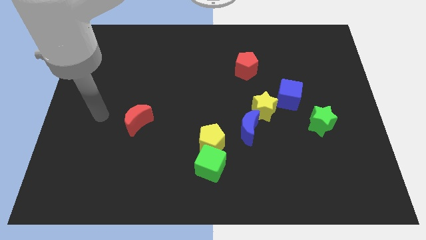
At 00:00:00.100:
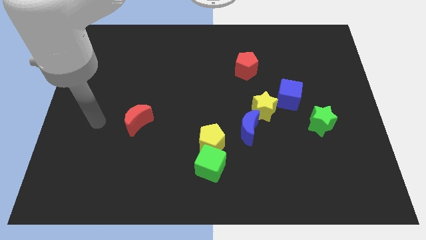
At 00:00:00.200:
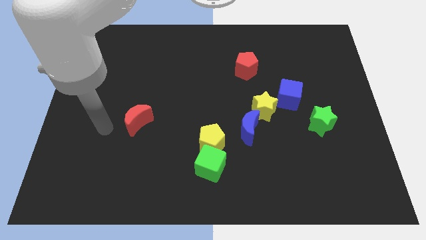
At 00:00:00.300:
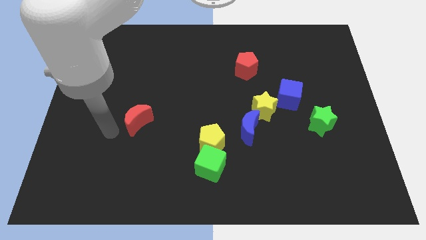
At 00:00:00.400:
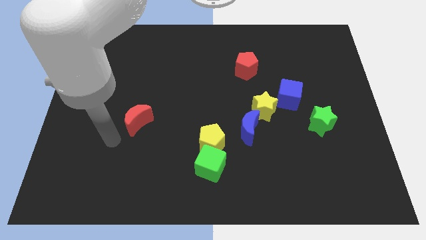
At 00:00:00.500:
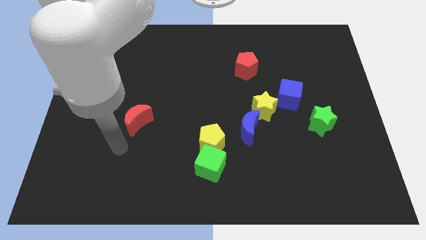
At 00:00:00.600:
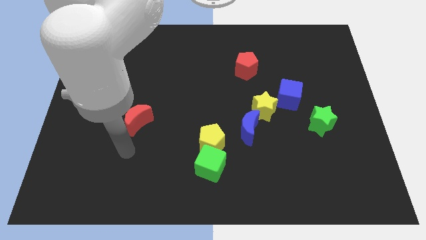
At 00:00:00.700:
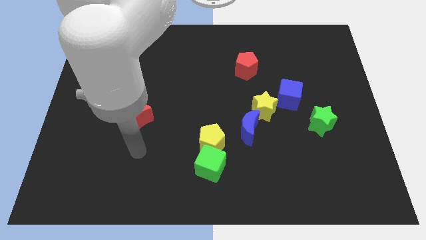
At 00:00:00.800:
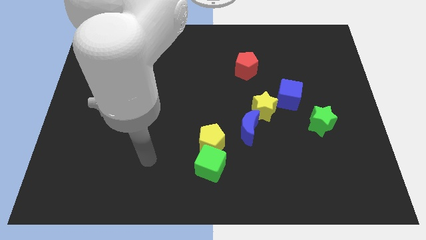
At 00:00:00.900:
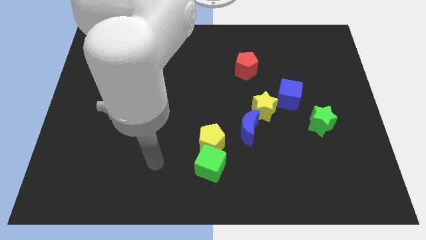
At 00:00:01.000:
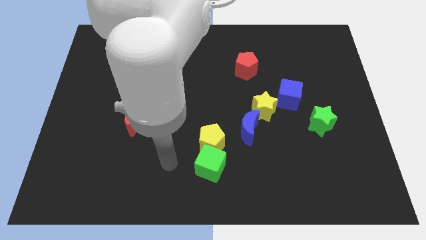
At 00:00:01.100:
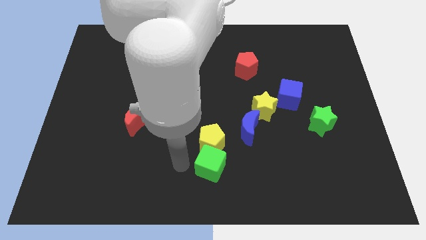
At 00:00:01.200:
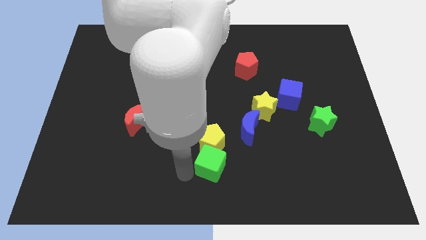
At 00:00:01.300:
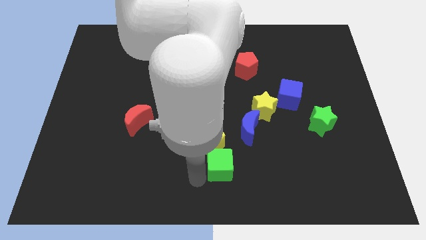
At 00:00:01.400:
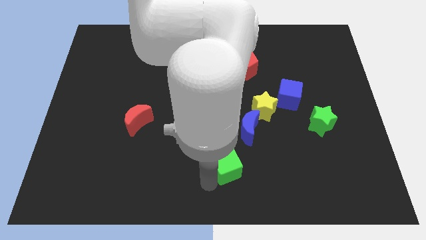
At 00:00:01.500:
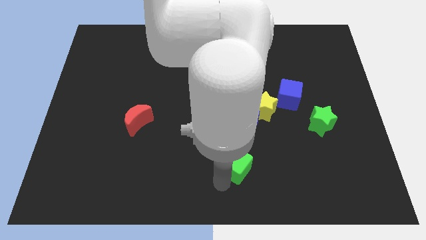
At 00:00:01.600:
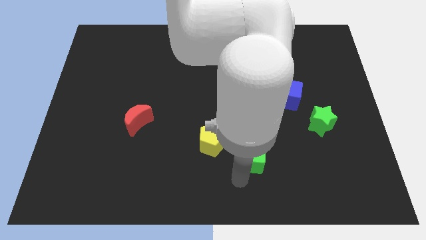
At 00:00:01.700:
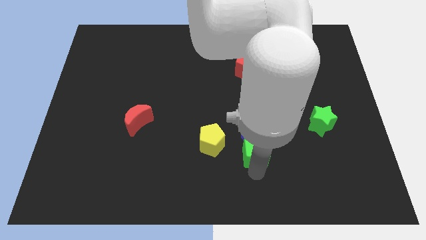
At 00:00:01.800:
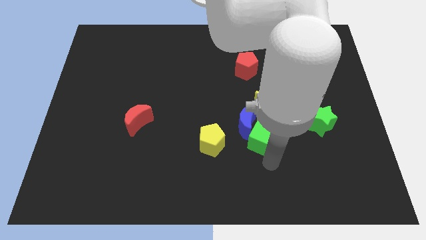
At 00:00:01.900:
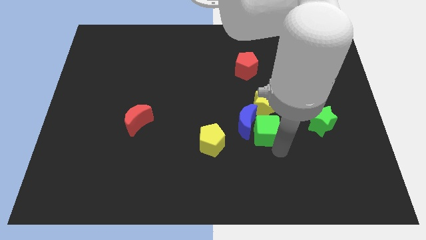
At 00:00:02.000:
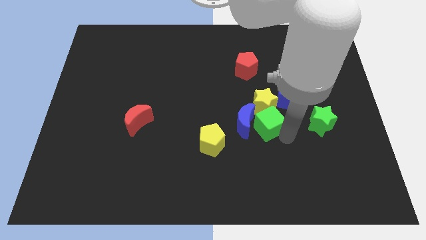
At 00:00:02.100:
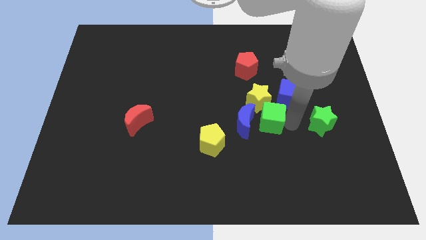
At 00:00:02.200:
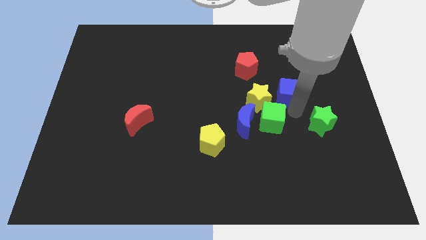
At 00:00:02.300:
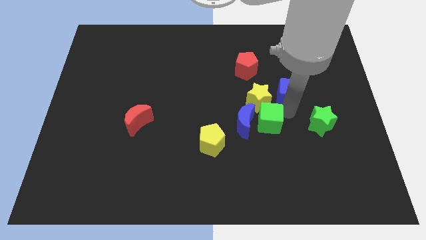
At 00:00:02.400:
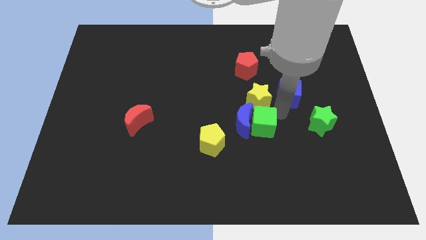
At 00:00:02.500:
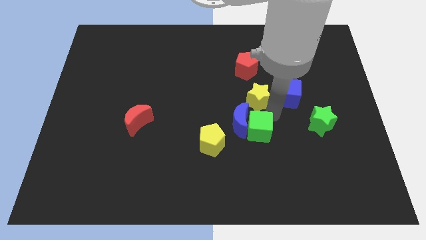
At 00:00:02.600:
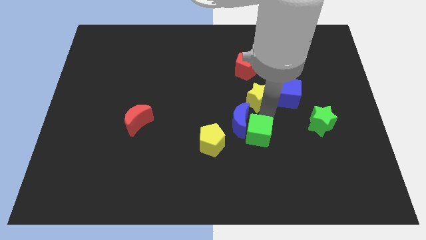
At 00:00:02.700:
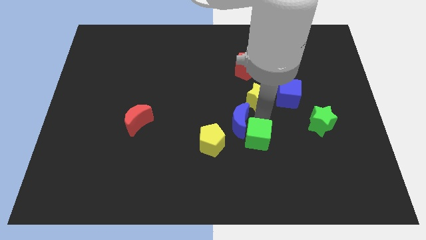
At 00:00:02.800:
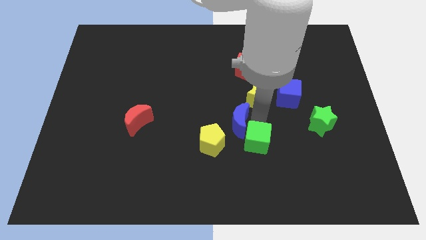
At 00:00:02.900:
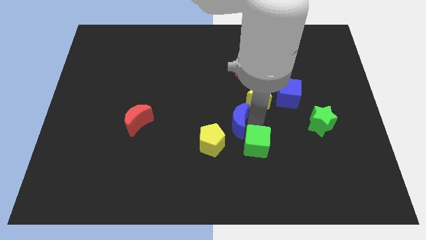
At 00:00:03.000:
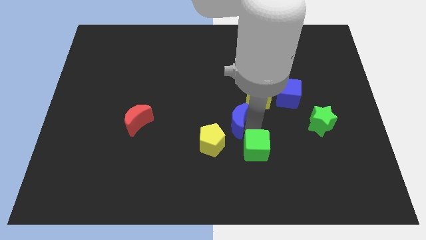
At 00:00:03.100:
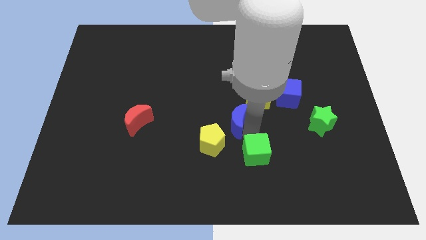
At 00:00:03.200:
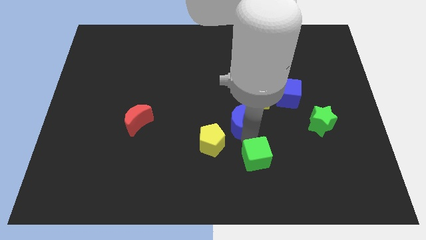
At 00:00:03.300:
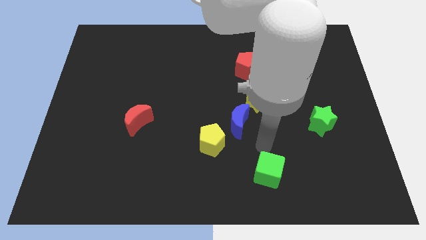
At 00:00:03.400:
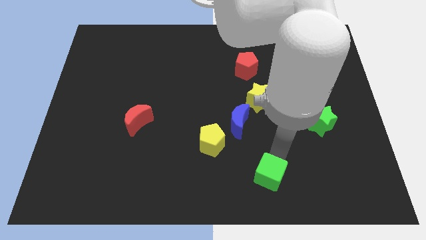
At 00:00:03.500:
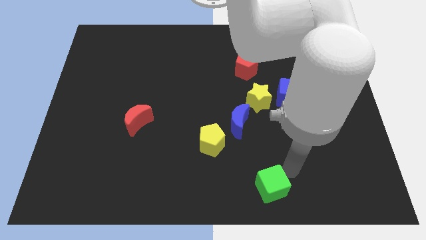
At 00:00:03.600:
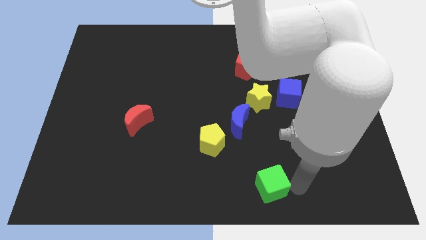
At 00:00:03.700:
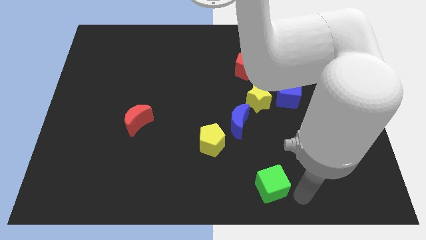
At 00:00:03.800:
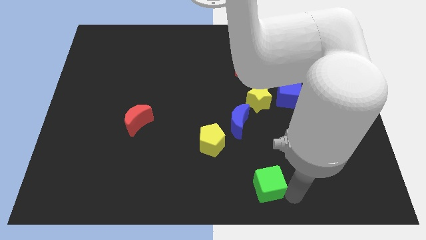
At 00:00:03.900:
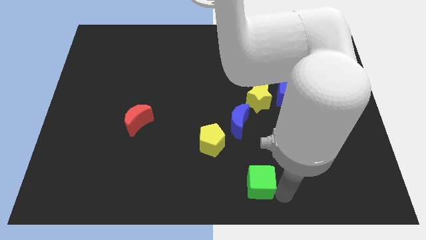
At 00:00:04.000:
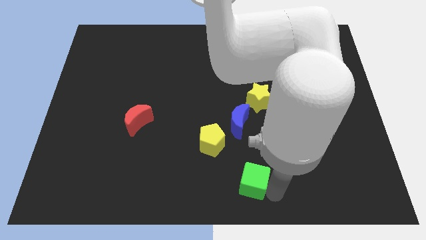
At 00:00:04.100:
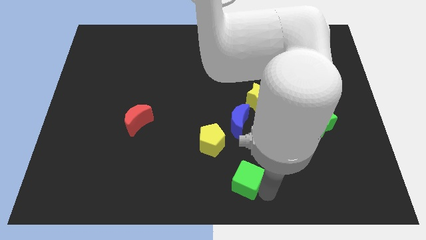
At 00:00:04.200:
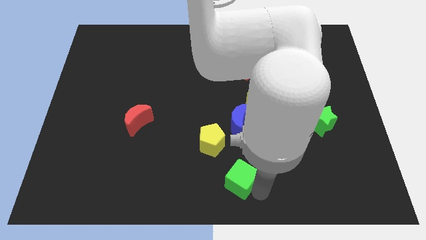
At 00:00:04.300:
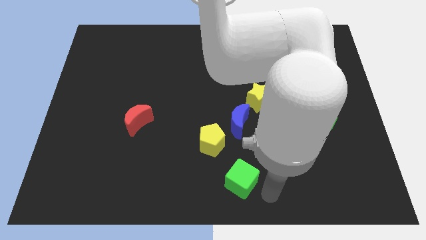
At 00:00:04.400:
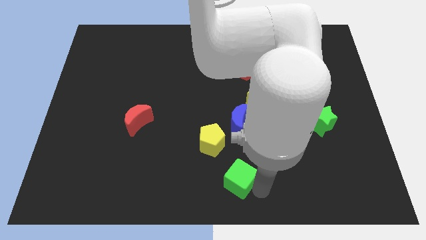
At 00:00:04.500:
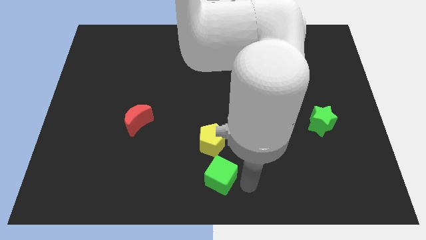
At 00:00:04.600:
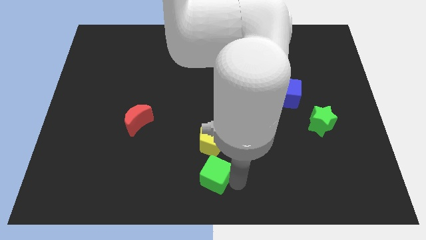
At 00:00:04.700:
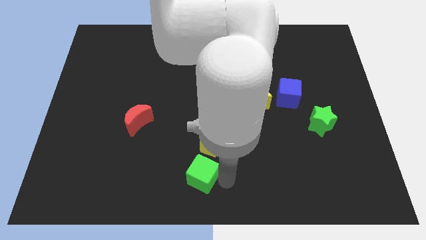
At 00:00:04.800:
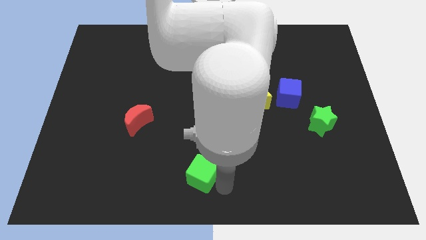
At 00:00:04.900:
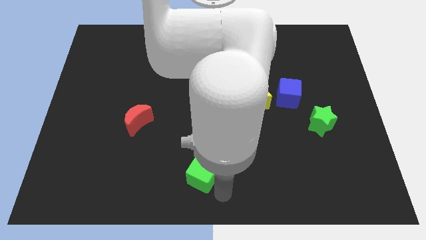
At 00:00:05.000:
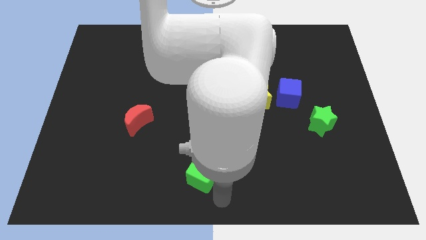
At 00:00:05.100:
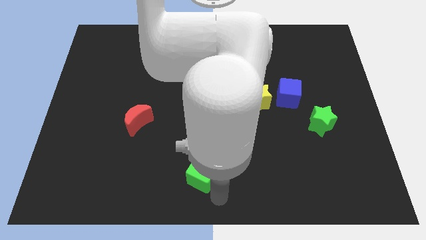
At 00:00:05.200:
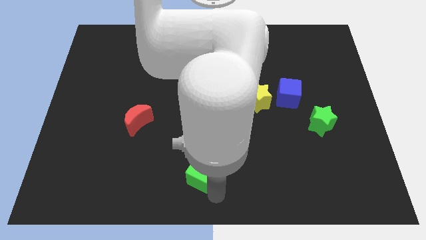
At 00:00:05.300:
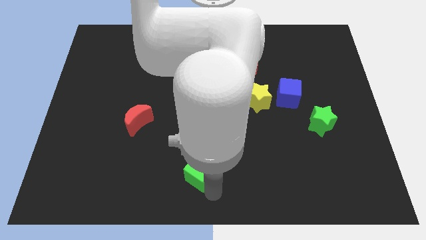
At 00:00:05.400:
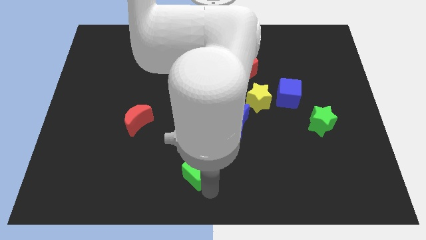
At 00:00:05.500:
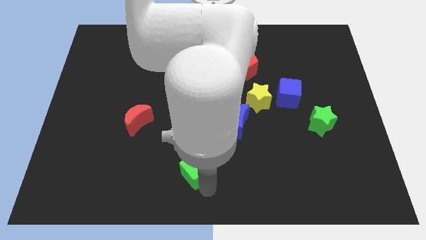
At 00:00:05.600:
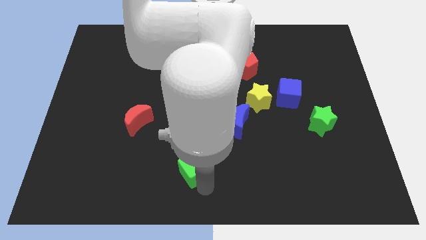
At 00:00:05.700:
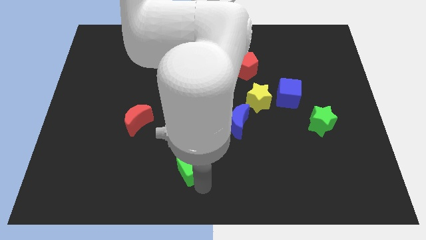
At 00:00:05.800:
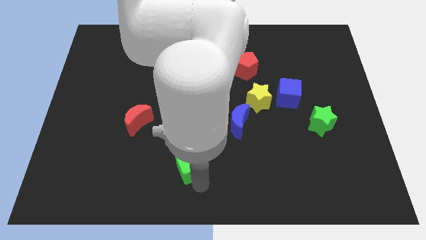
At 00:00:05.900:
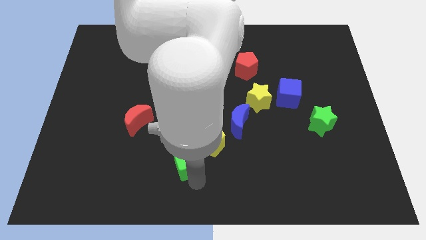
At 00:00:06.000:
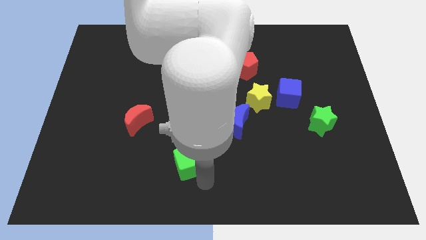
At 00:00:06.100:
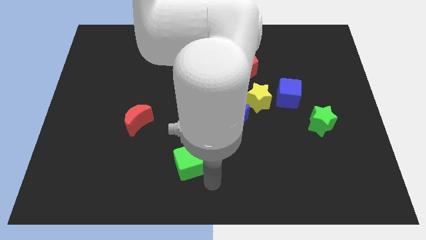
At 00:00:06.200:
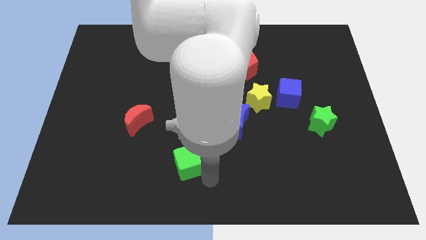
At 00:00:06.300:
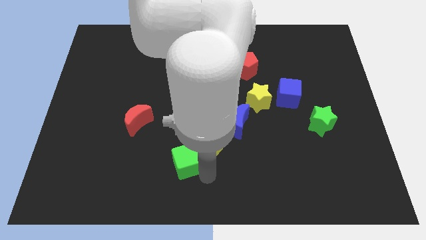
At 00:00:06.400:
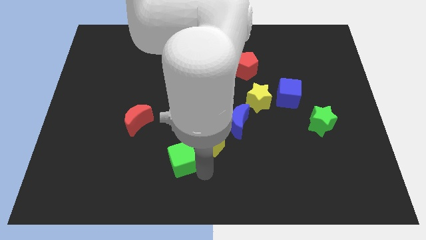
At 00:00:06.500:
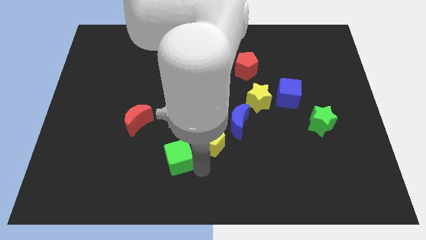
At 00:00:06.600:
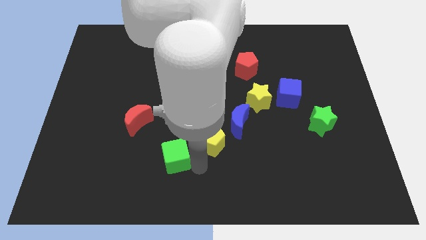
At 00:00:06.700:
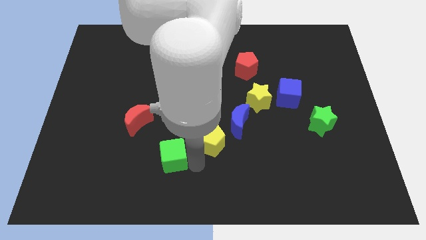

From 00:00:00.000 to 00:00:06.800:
put the green cube to the bottom right of the red moon
